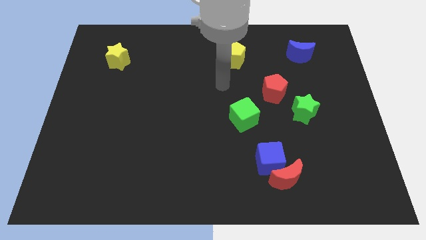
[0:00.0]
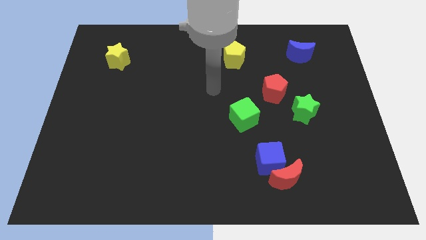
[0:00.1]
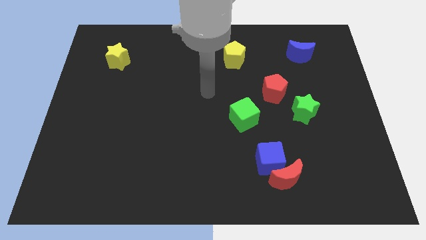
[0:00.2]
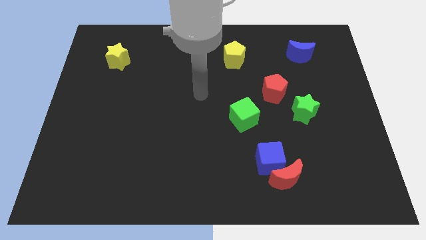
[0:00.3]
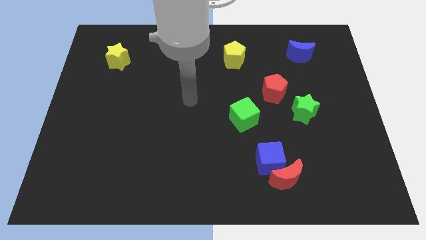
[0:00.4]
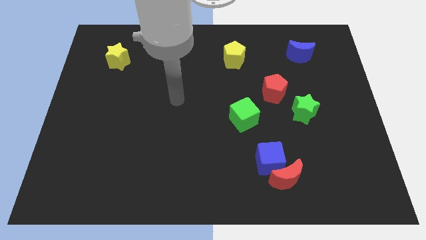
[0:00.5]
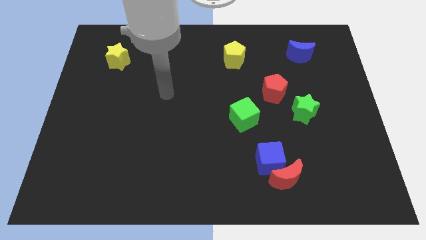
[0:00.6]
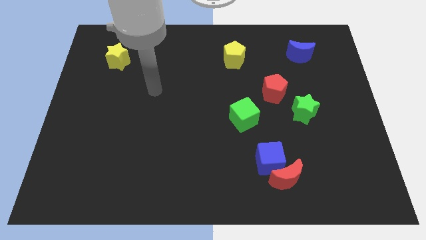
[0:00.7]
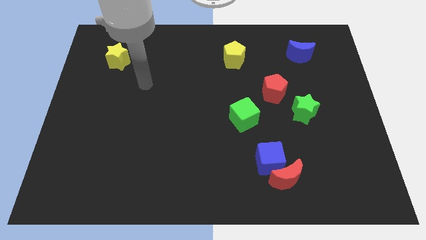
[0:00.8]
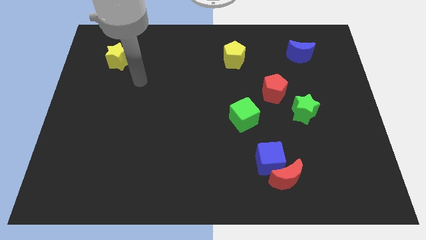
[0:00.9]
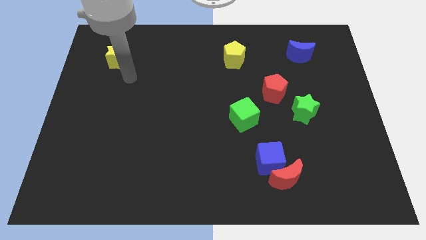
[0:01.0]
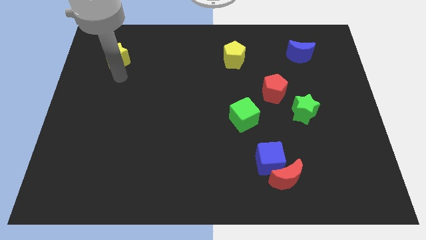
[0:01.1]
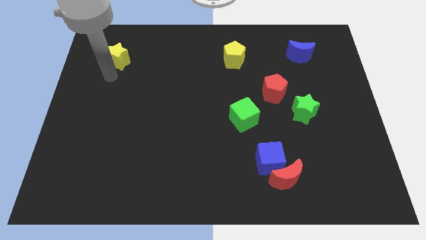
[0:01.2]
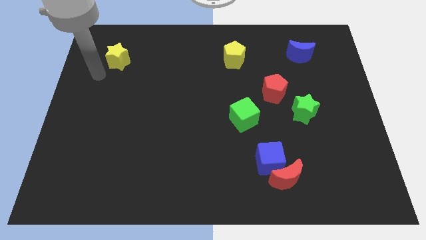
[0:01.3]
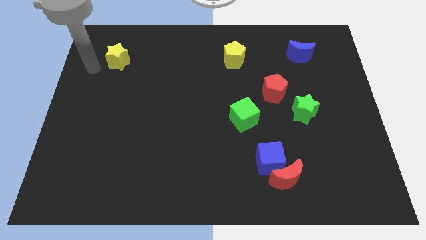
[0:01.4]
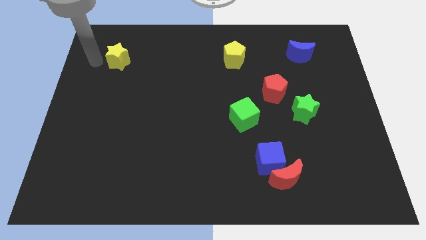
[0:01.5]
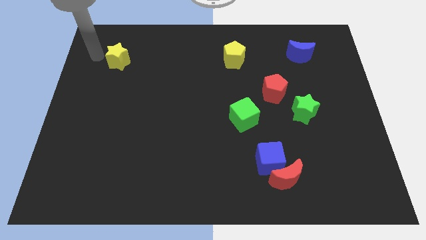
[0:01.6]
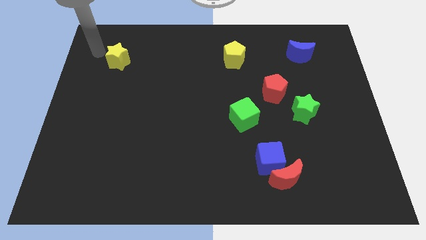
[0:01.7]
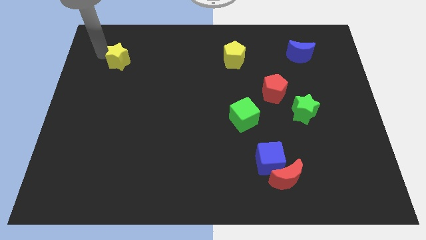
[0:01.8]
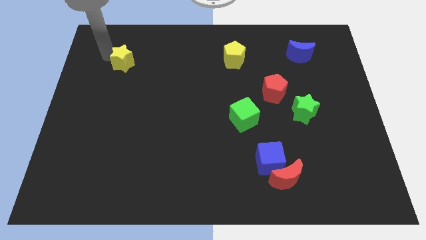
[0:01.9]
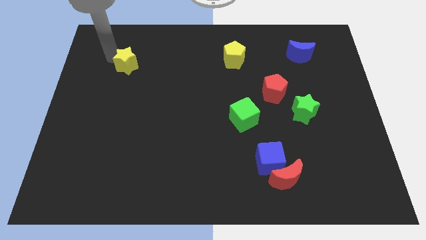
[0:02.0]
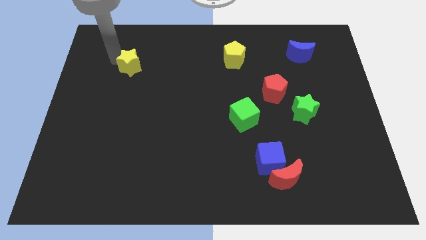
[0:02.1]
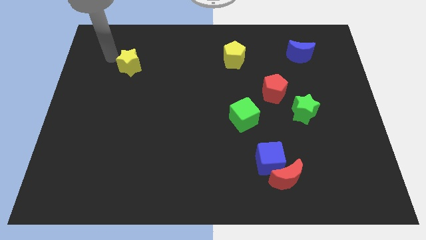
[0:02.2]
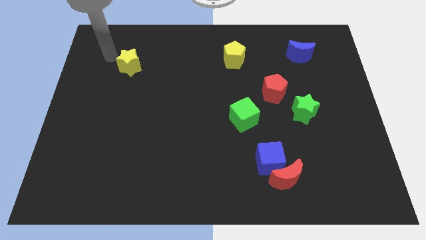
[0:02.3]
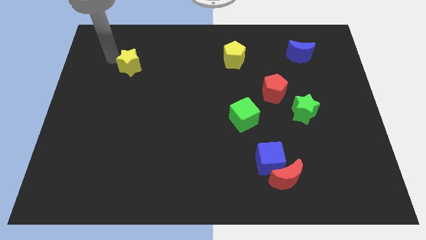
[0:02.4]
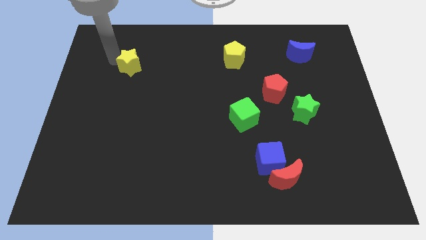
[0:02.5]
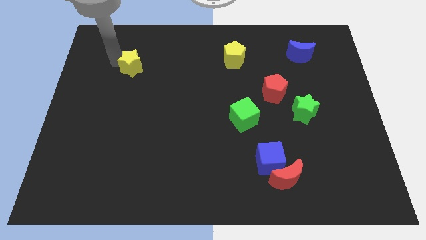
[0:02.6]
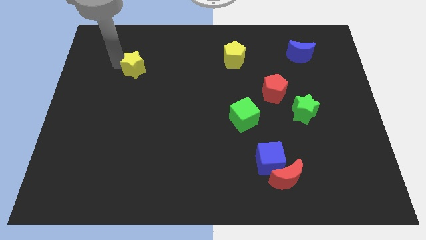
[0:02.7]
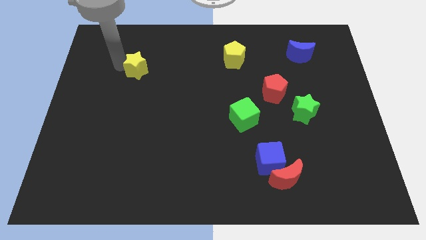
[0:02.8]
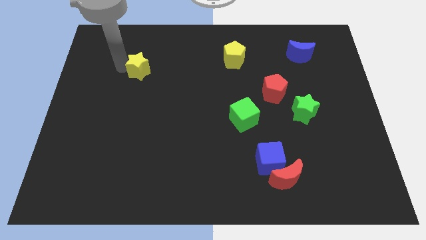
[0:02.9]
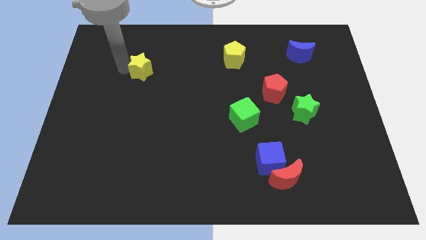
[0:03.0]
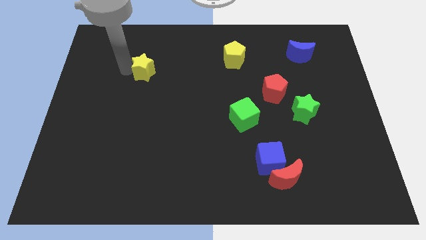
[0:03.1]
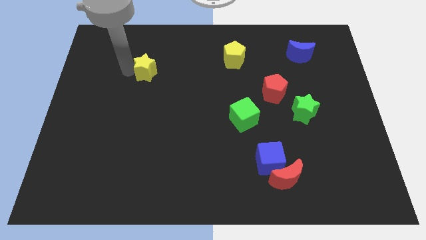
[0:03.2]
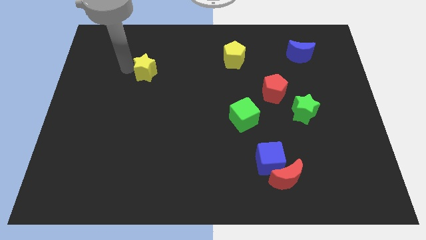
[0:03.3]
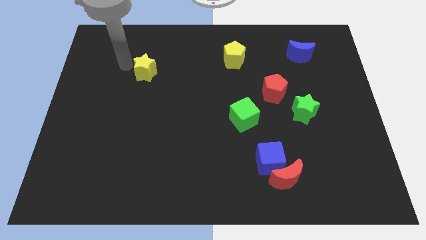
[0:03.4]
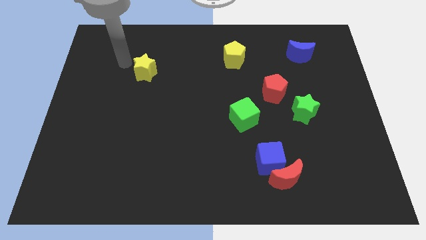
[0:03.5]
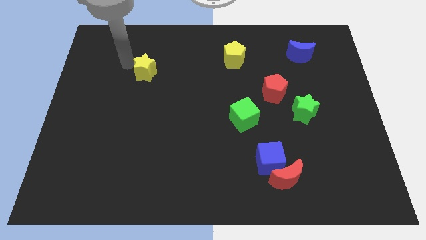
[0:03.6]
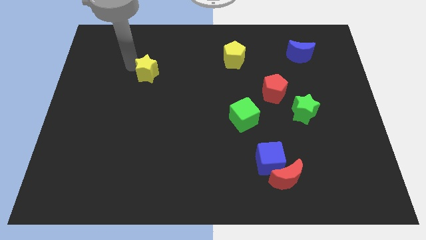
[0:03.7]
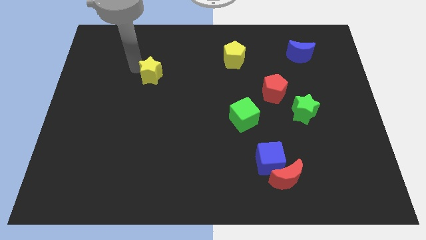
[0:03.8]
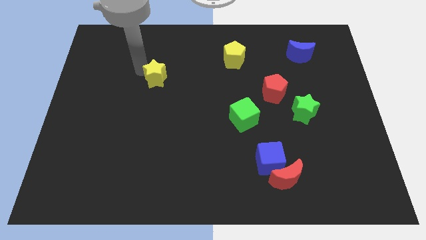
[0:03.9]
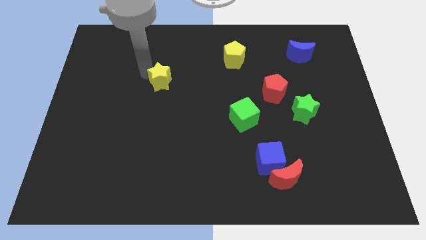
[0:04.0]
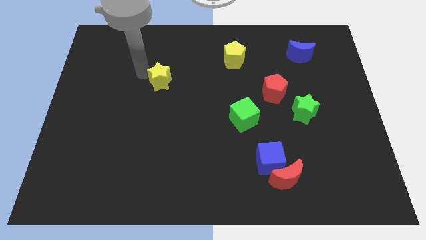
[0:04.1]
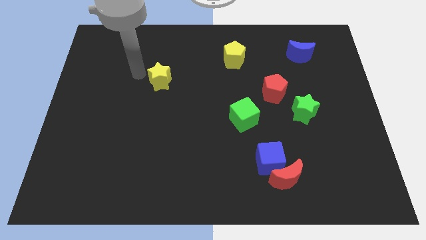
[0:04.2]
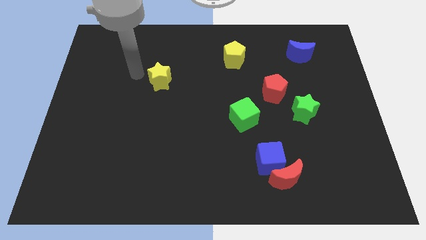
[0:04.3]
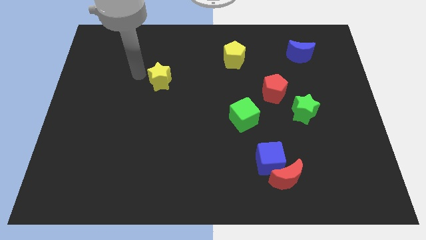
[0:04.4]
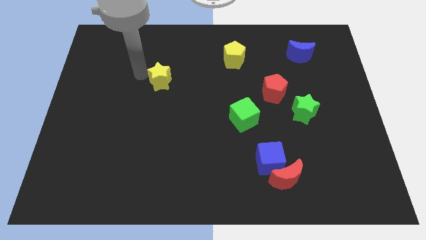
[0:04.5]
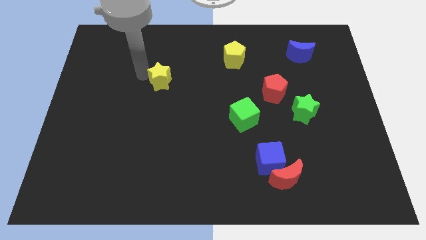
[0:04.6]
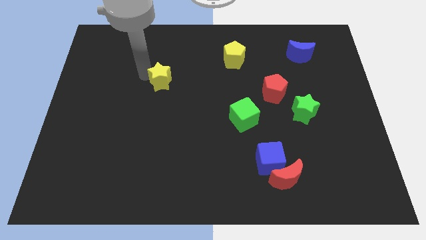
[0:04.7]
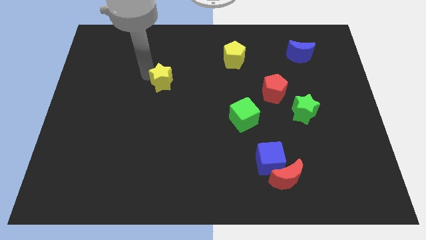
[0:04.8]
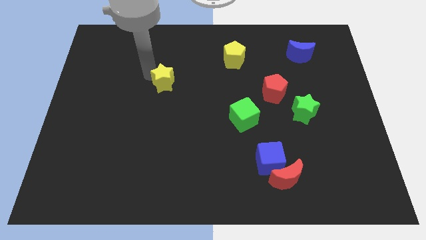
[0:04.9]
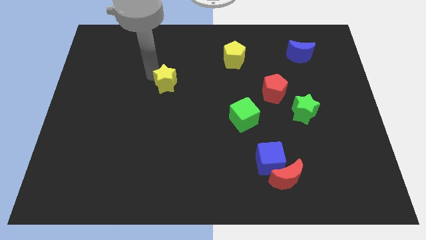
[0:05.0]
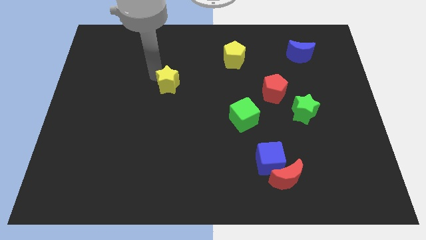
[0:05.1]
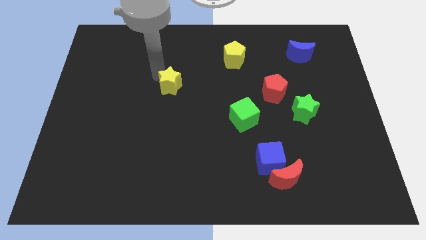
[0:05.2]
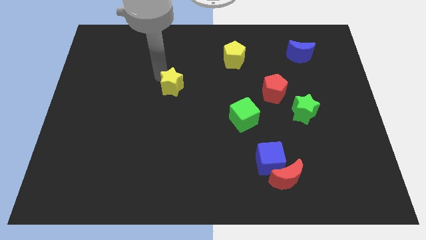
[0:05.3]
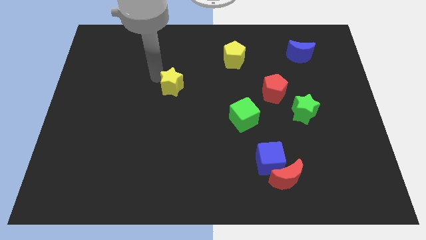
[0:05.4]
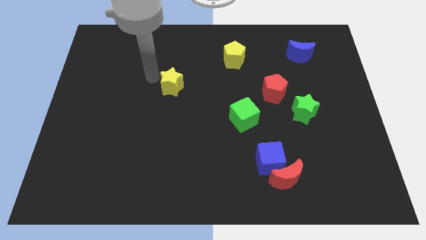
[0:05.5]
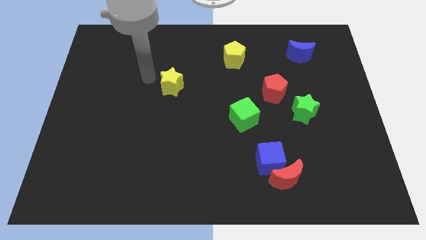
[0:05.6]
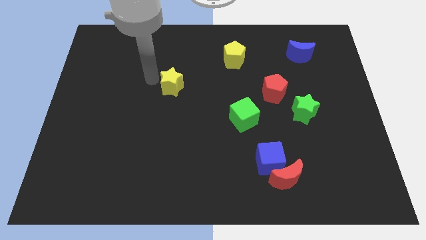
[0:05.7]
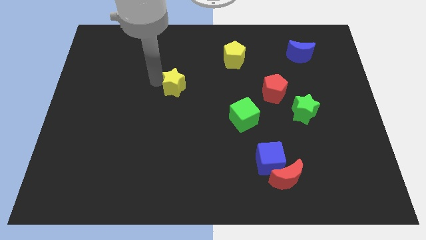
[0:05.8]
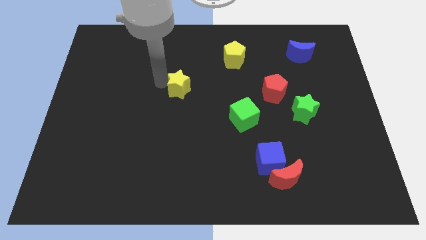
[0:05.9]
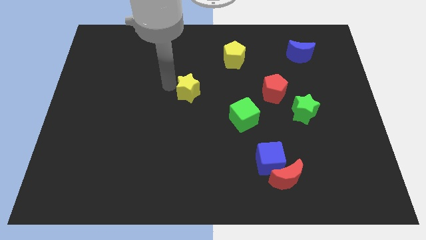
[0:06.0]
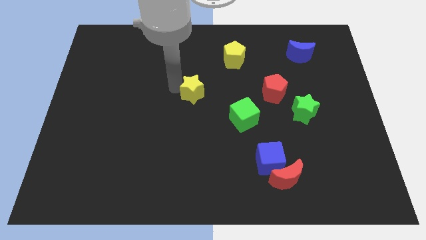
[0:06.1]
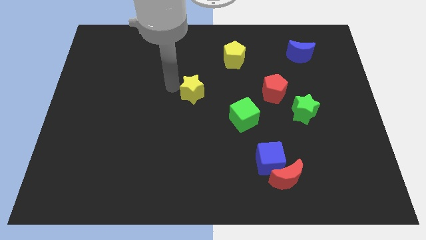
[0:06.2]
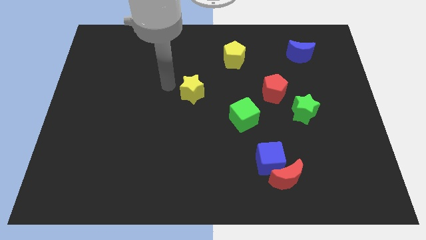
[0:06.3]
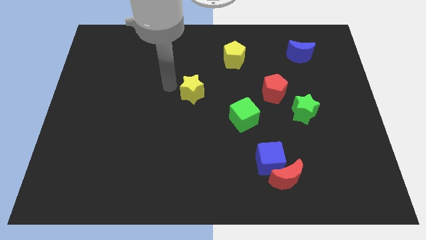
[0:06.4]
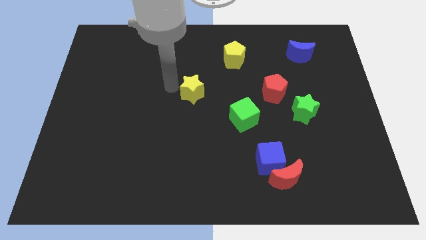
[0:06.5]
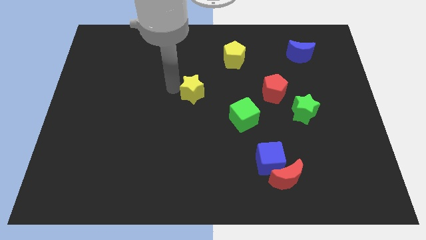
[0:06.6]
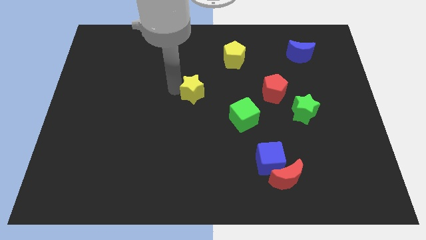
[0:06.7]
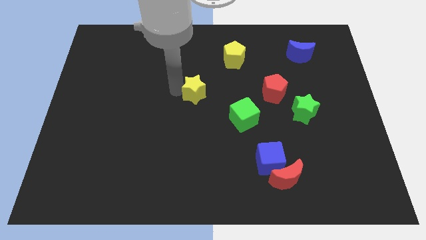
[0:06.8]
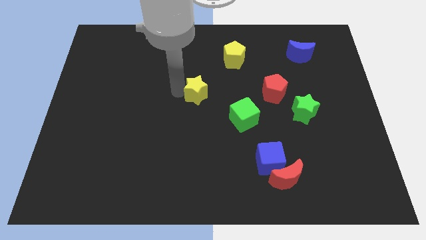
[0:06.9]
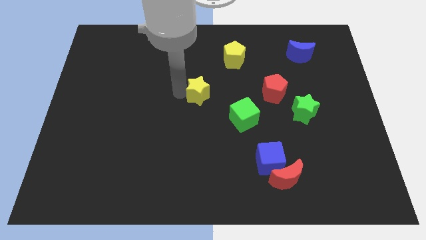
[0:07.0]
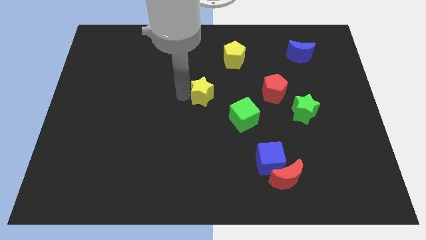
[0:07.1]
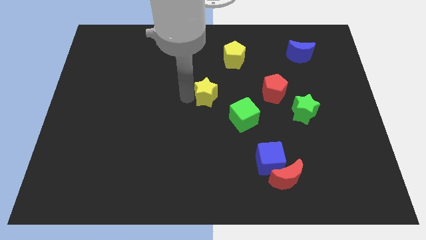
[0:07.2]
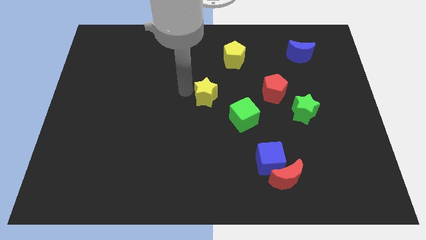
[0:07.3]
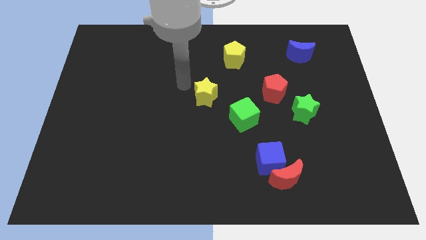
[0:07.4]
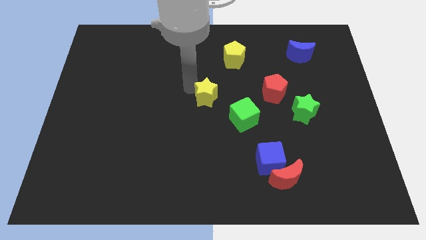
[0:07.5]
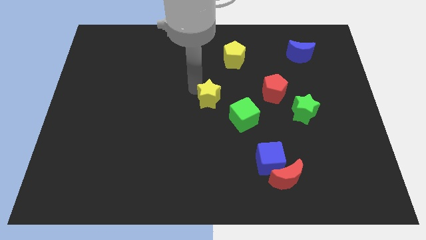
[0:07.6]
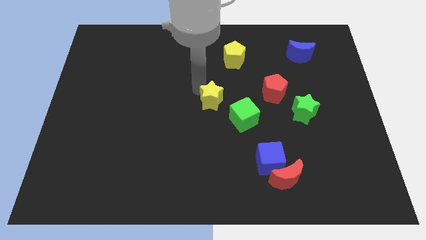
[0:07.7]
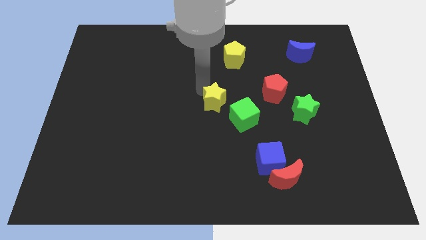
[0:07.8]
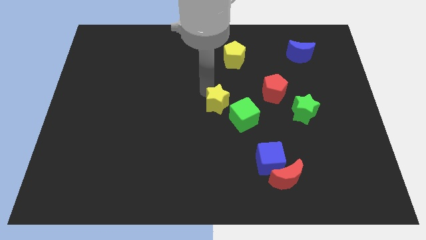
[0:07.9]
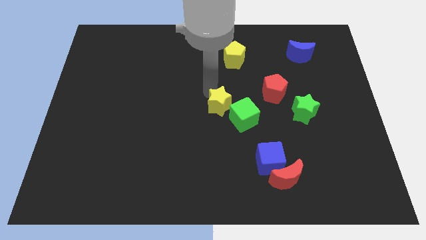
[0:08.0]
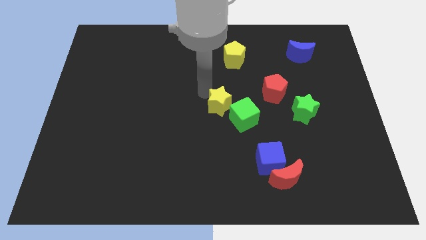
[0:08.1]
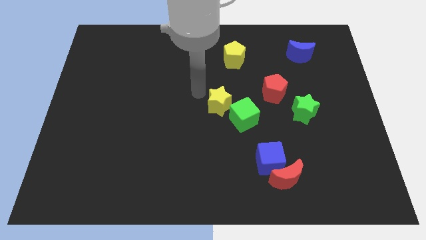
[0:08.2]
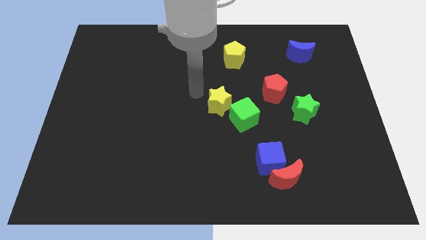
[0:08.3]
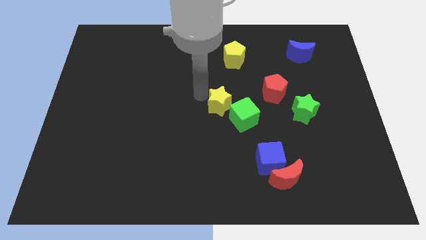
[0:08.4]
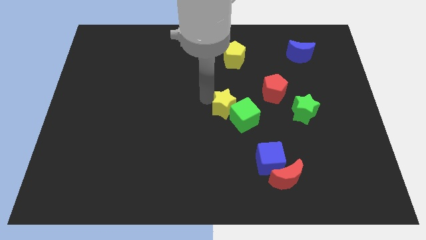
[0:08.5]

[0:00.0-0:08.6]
move the yellow star close to the green cube
